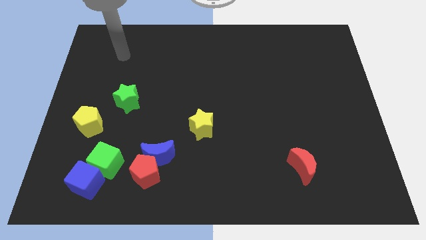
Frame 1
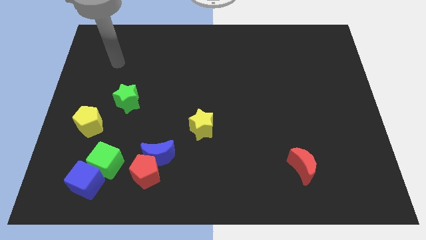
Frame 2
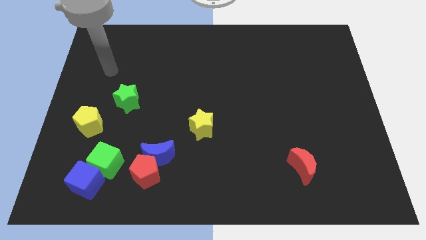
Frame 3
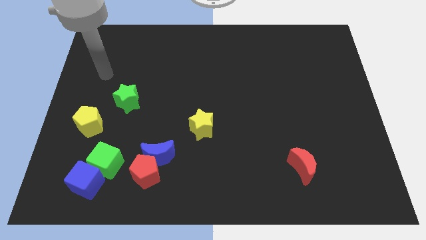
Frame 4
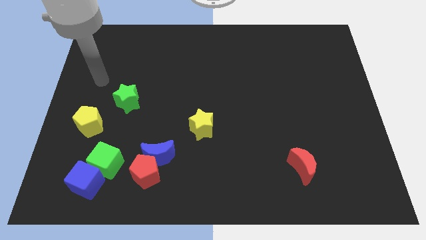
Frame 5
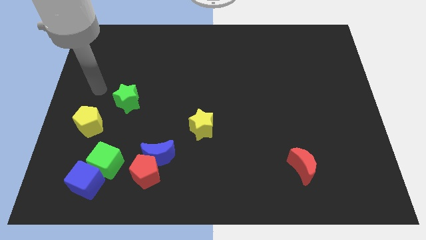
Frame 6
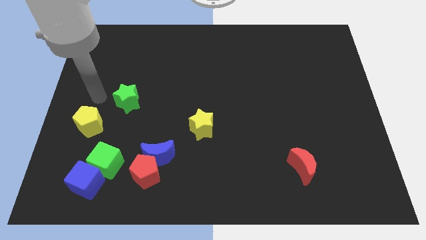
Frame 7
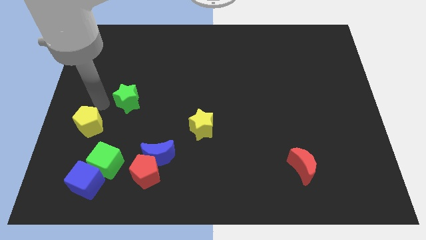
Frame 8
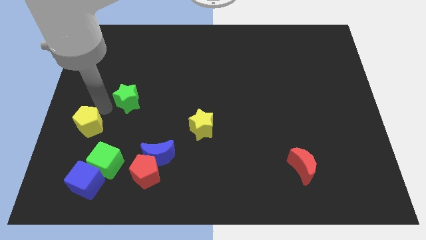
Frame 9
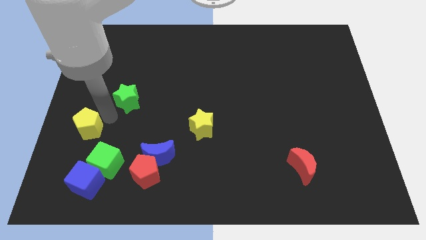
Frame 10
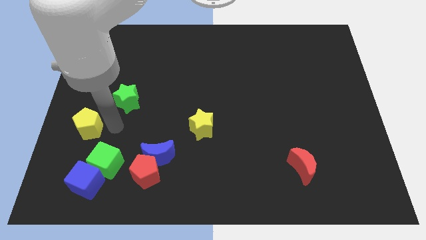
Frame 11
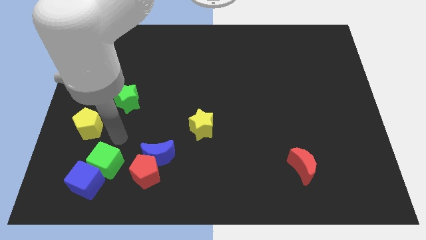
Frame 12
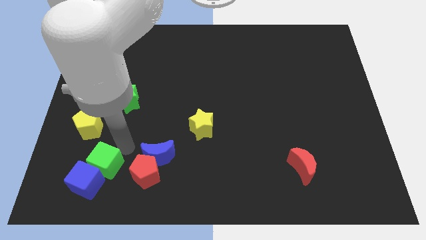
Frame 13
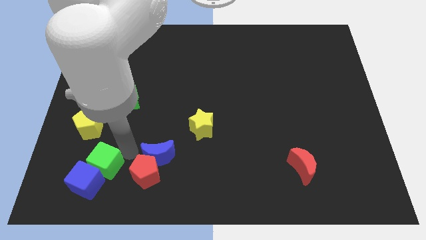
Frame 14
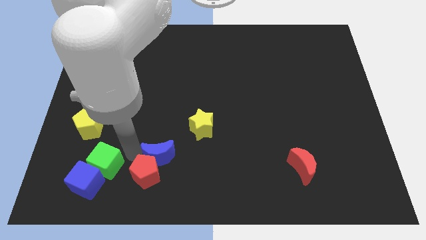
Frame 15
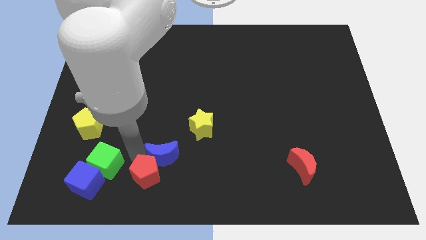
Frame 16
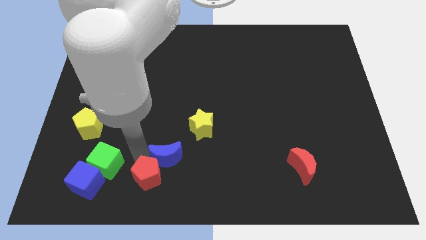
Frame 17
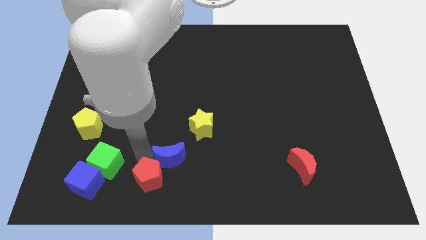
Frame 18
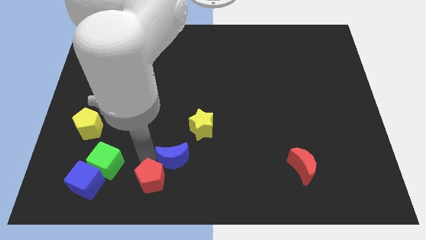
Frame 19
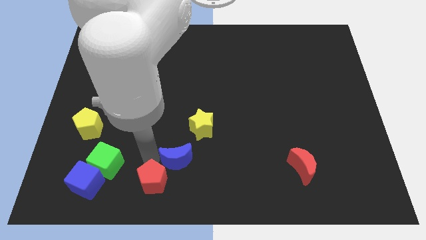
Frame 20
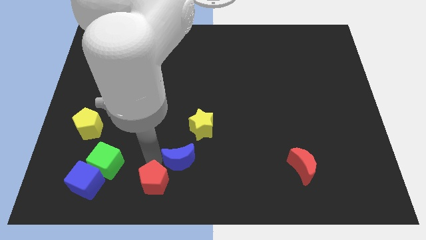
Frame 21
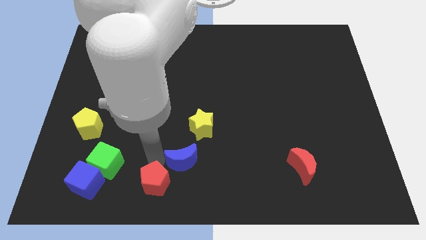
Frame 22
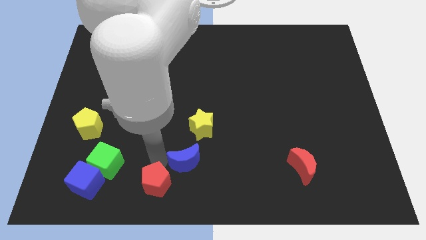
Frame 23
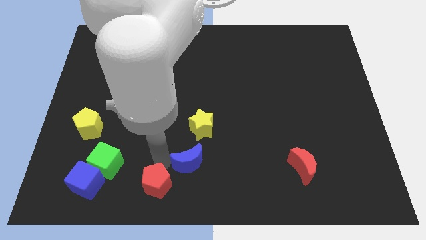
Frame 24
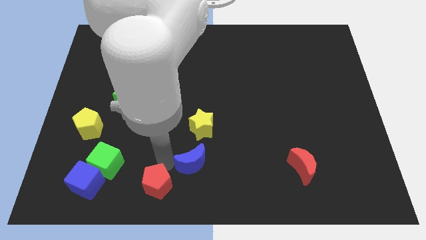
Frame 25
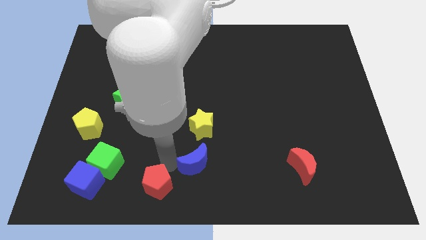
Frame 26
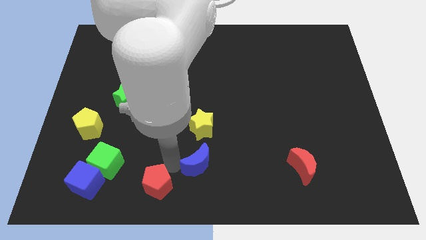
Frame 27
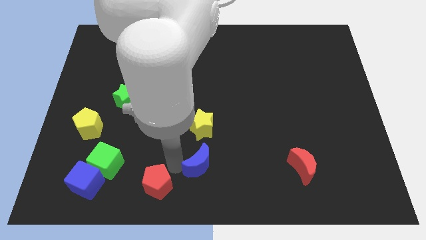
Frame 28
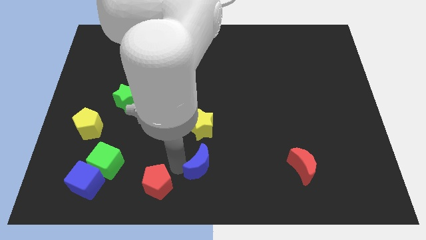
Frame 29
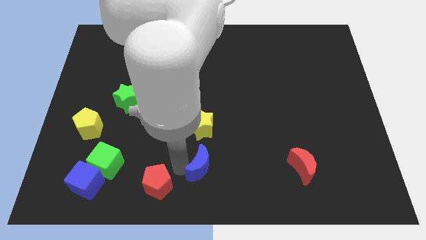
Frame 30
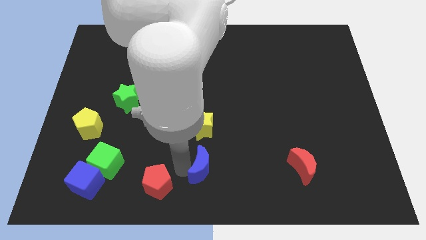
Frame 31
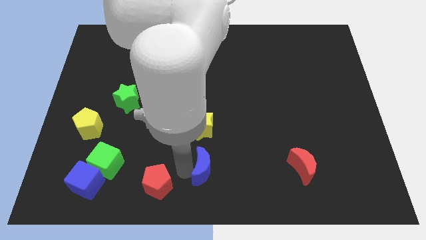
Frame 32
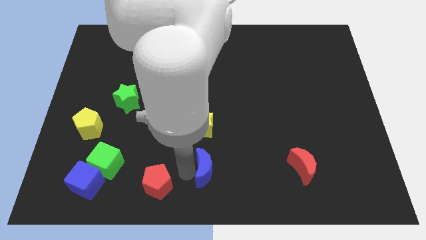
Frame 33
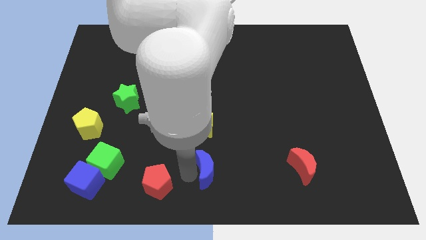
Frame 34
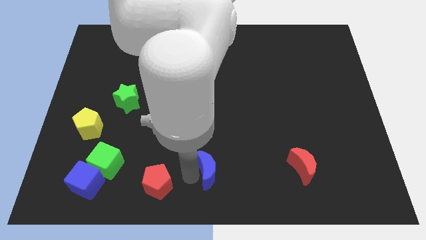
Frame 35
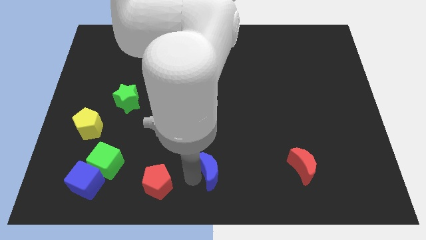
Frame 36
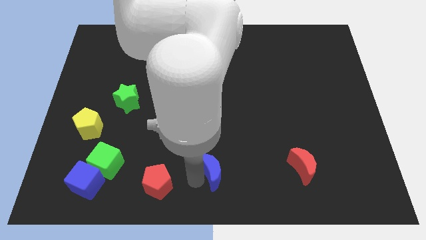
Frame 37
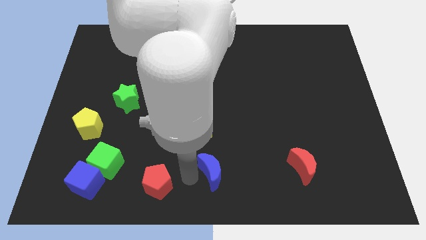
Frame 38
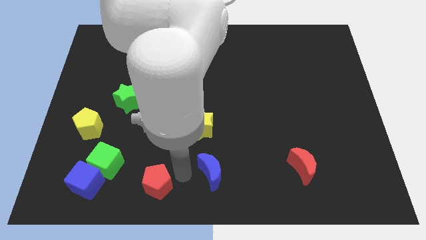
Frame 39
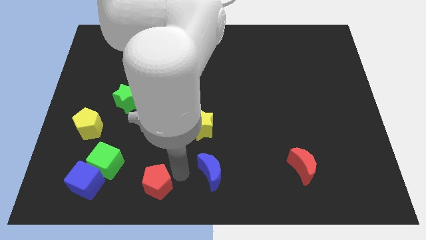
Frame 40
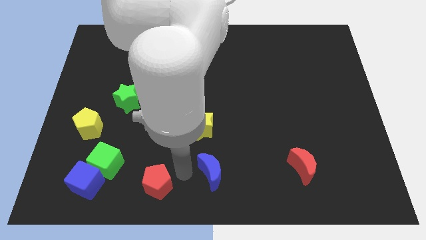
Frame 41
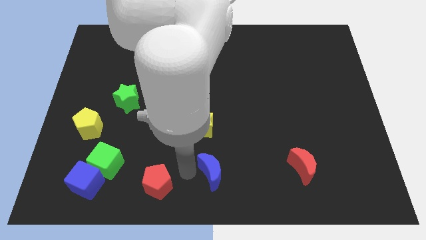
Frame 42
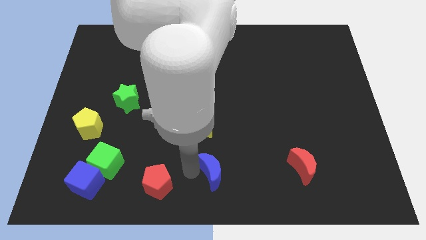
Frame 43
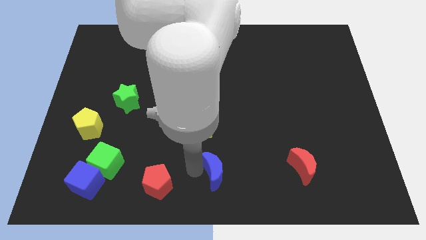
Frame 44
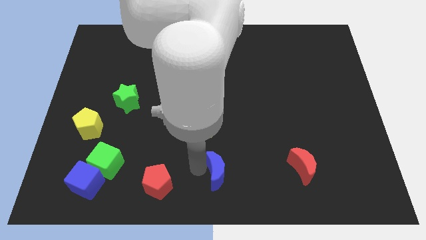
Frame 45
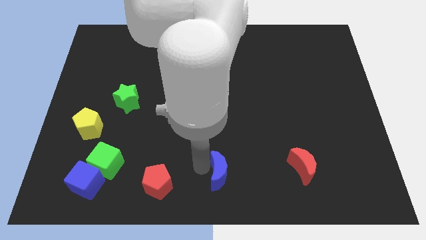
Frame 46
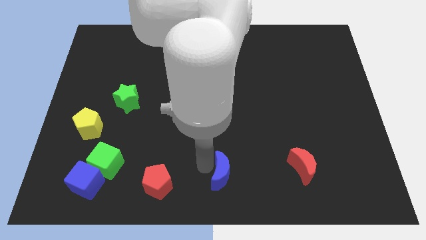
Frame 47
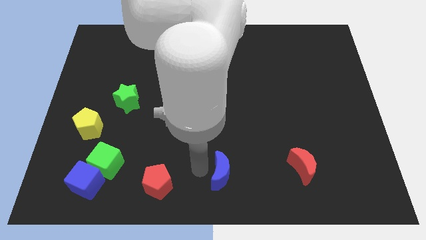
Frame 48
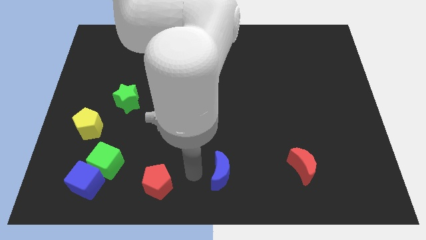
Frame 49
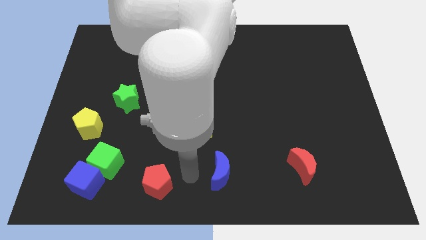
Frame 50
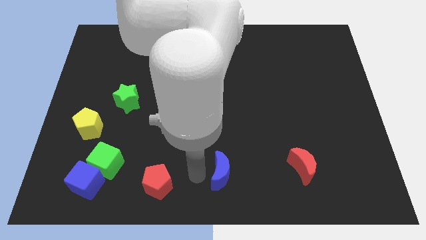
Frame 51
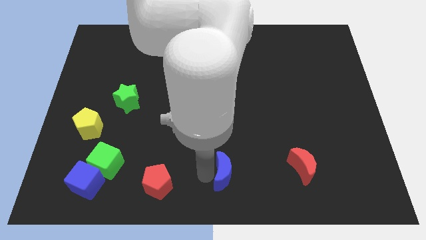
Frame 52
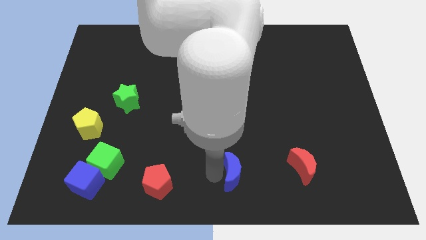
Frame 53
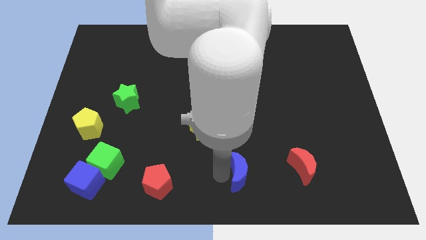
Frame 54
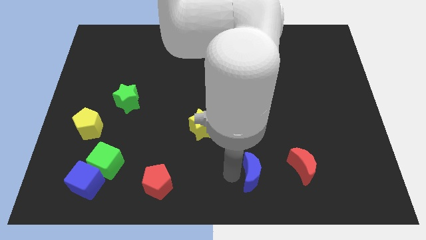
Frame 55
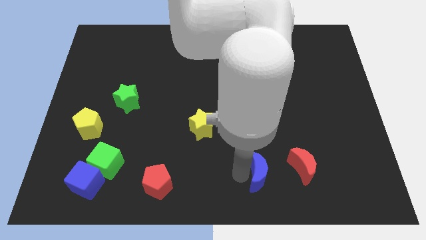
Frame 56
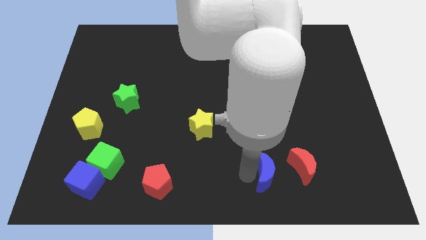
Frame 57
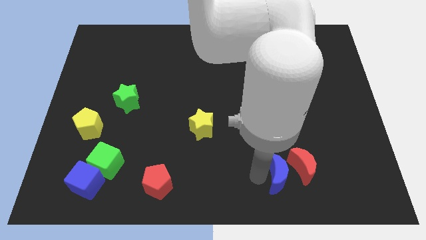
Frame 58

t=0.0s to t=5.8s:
slide the blue moon towards the red moon

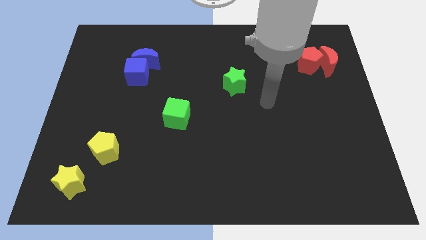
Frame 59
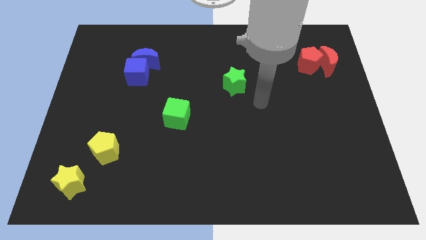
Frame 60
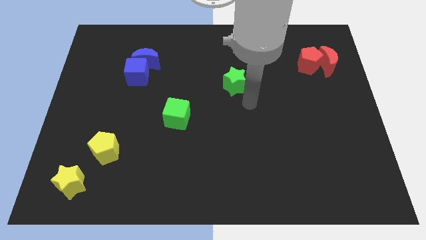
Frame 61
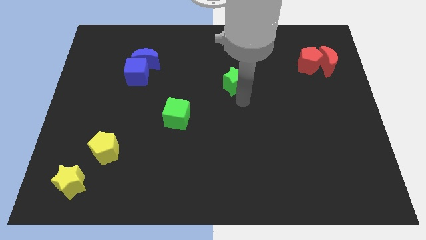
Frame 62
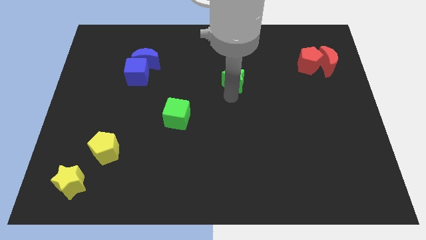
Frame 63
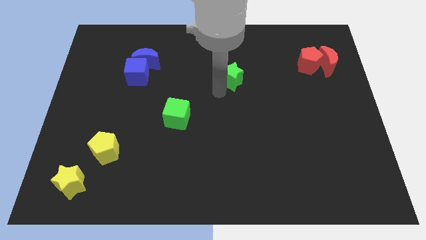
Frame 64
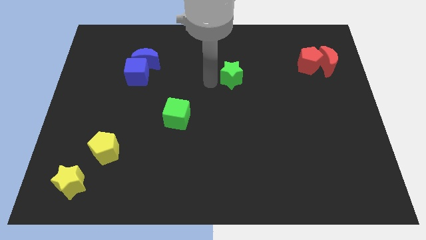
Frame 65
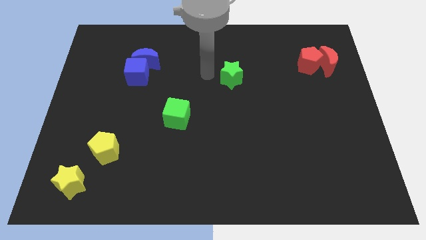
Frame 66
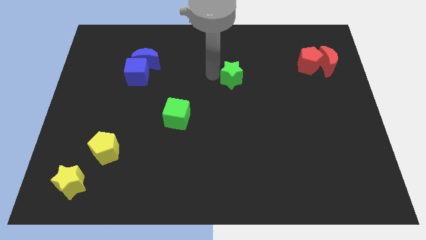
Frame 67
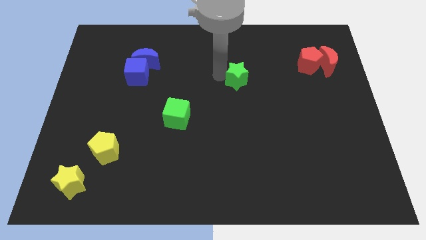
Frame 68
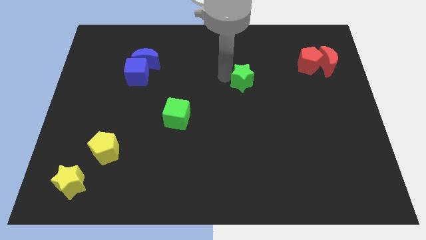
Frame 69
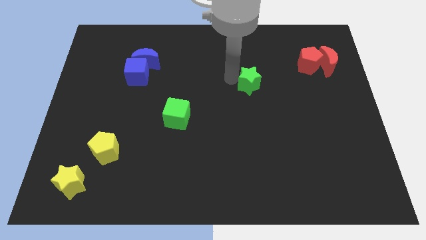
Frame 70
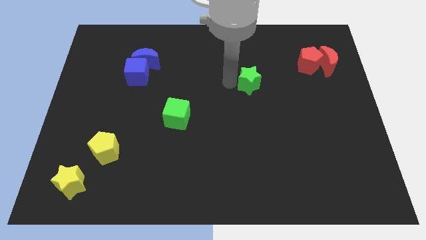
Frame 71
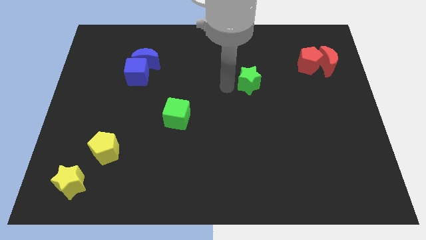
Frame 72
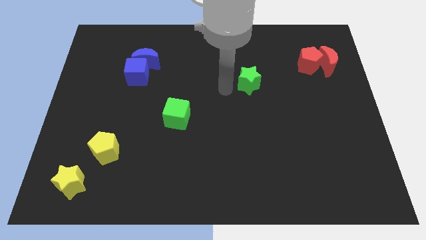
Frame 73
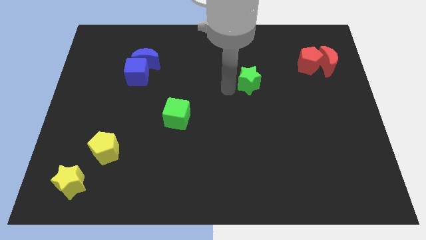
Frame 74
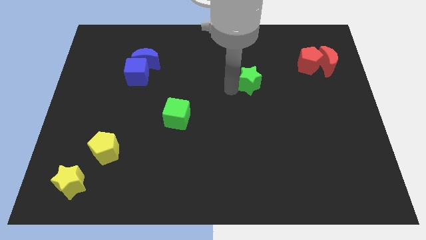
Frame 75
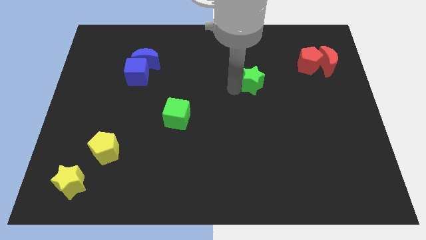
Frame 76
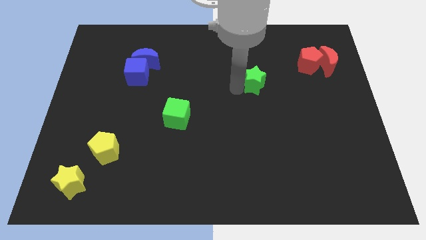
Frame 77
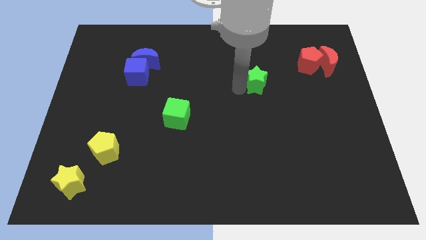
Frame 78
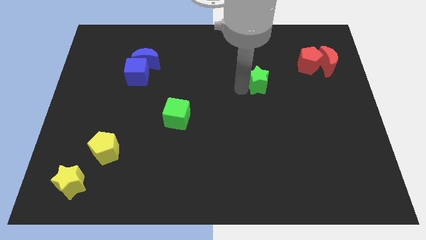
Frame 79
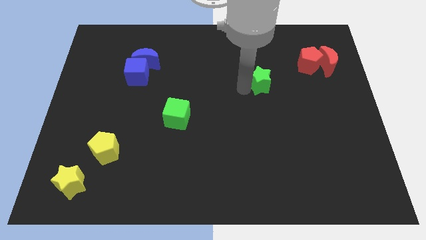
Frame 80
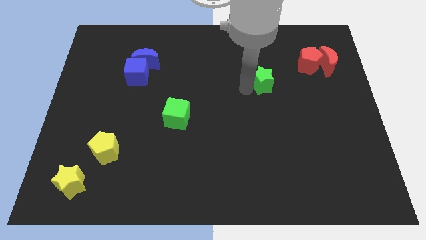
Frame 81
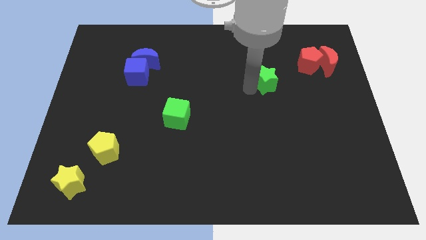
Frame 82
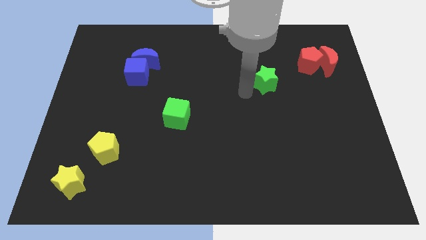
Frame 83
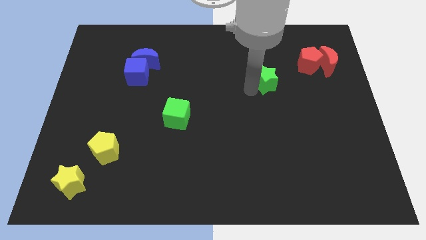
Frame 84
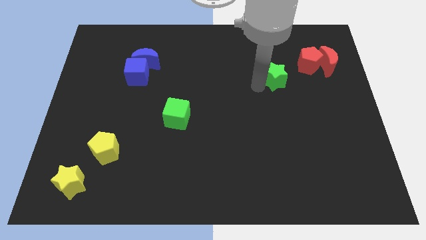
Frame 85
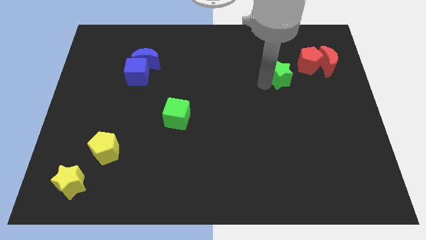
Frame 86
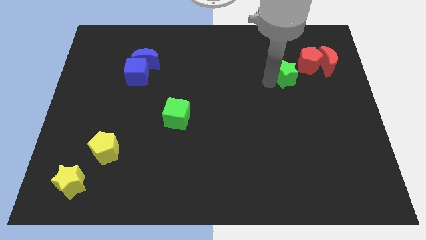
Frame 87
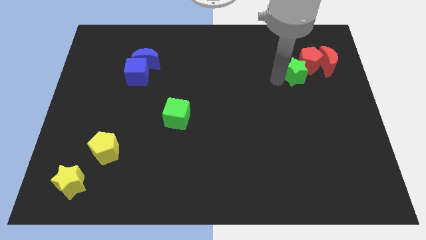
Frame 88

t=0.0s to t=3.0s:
slide the green star next to the red pentagon
